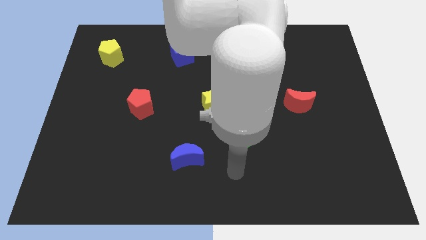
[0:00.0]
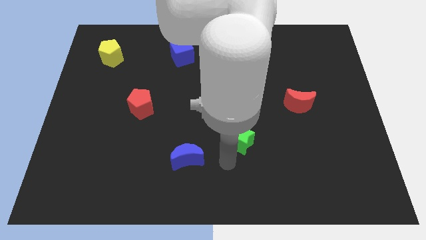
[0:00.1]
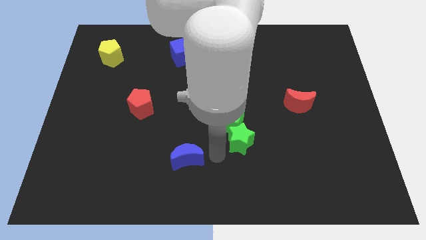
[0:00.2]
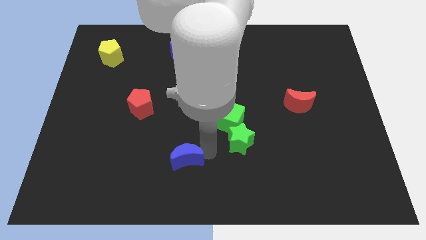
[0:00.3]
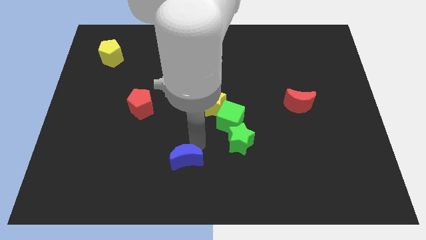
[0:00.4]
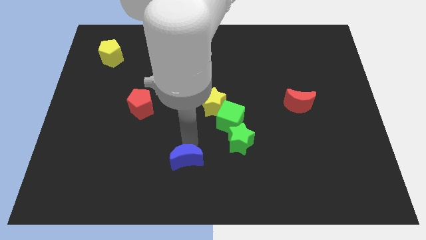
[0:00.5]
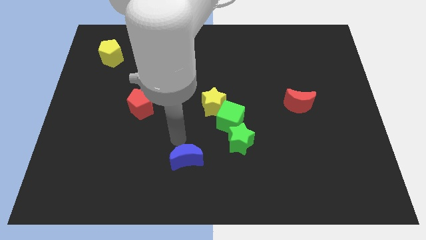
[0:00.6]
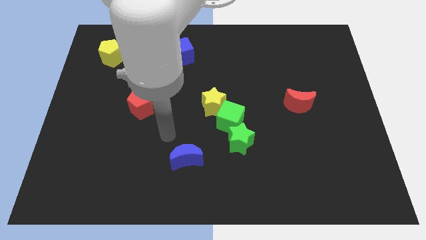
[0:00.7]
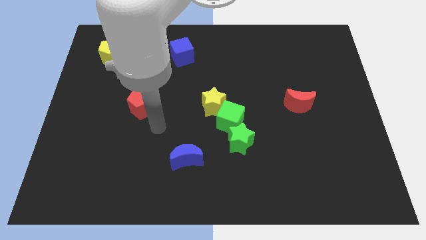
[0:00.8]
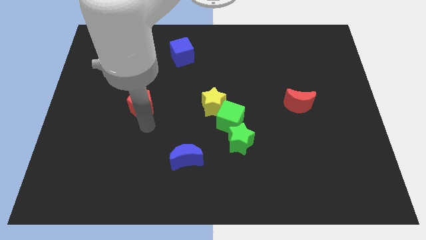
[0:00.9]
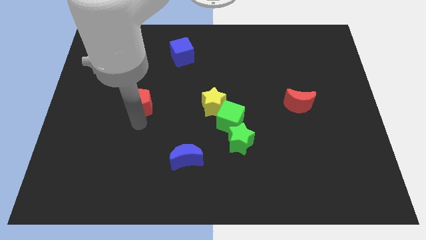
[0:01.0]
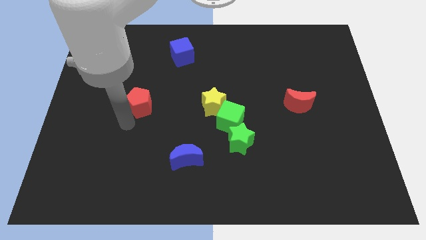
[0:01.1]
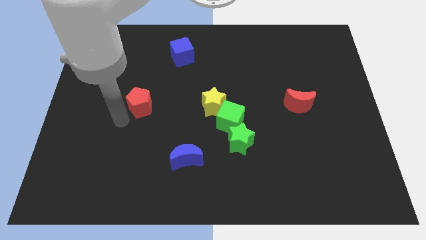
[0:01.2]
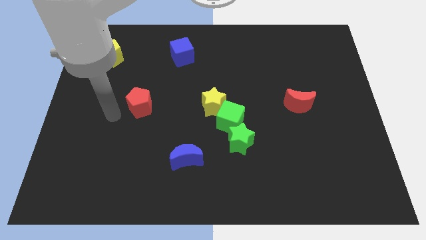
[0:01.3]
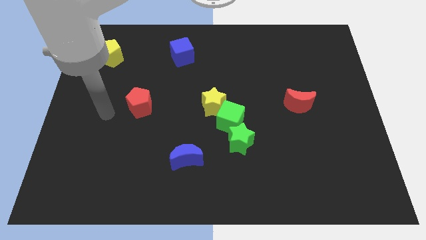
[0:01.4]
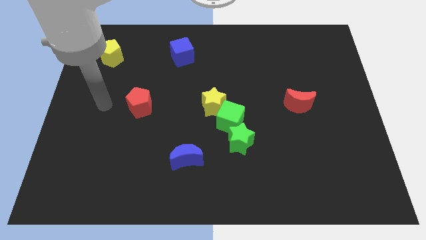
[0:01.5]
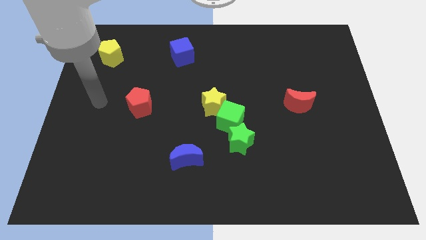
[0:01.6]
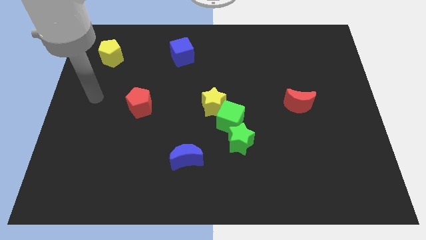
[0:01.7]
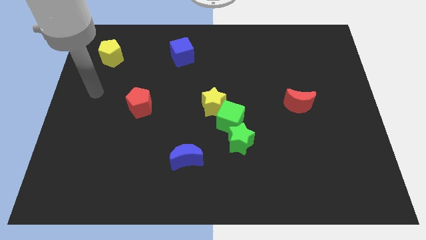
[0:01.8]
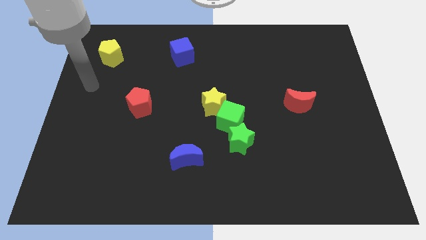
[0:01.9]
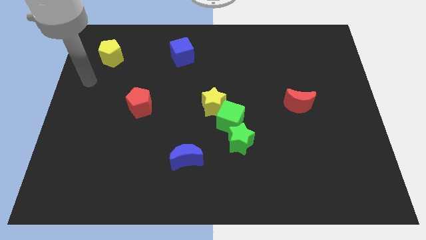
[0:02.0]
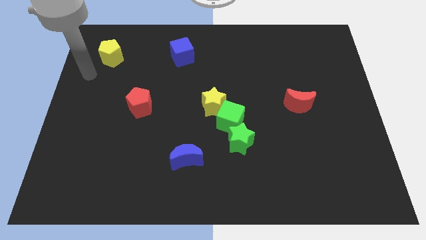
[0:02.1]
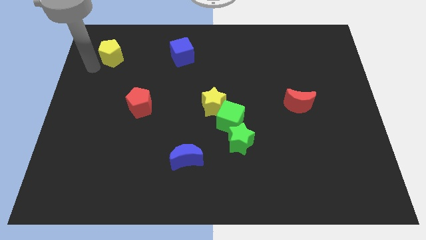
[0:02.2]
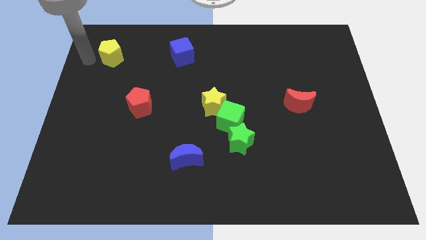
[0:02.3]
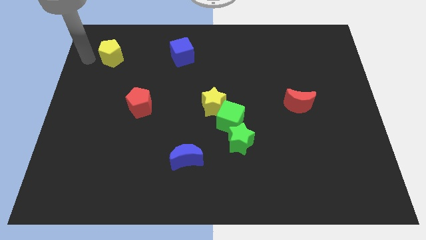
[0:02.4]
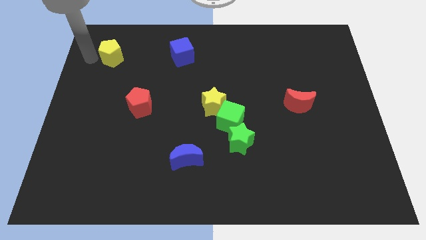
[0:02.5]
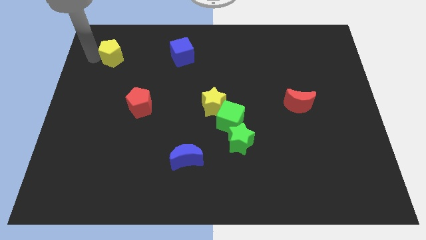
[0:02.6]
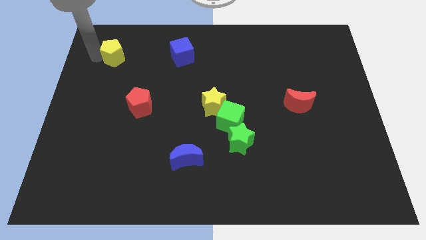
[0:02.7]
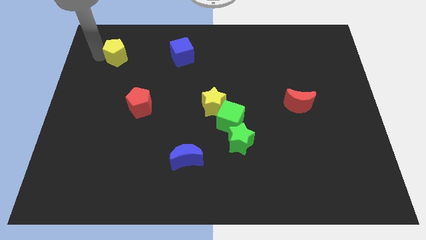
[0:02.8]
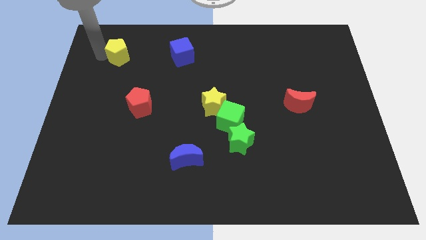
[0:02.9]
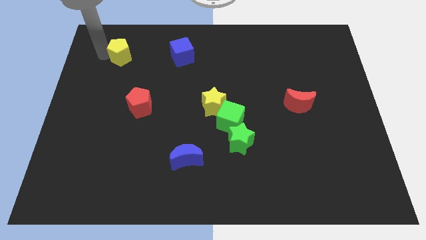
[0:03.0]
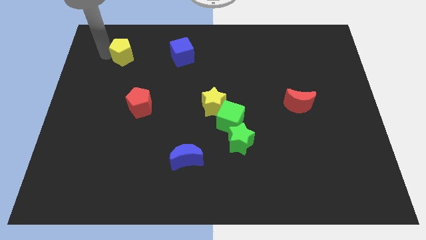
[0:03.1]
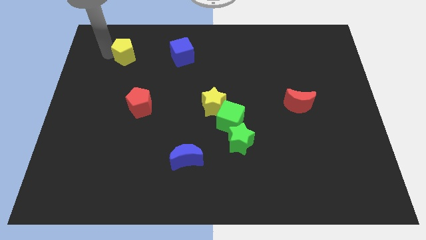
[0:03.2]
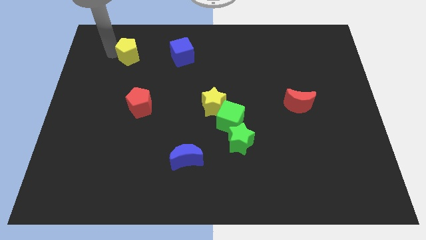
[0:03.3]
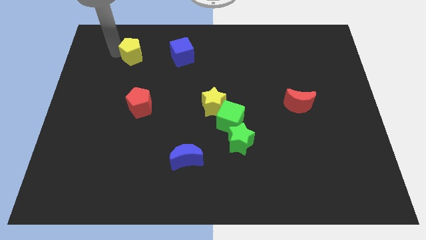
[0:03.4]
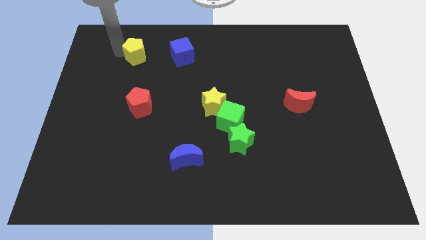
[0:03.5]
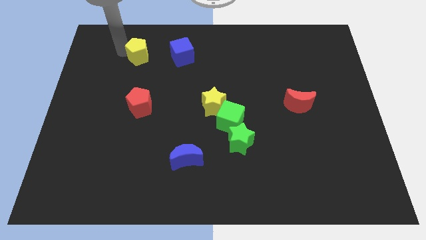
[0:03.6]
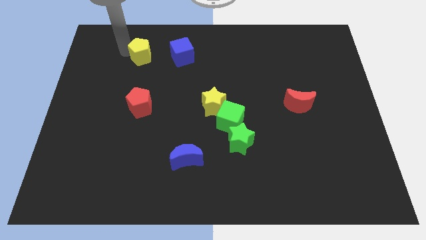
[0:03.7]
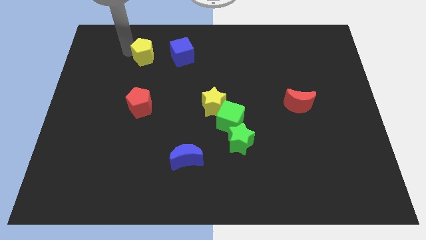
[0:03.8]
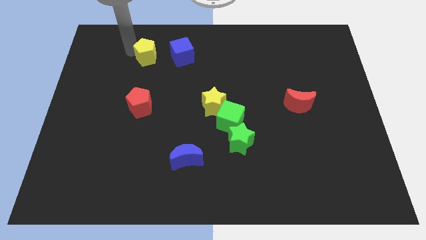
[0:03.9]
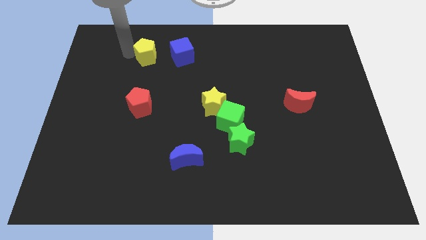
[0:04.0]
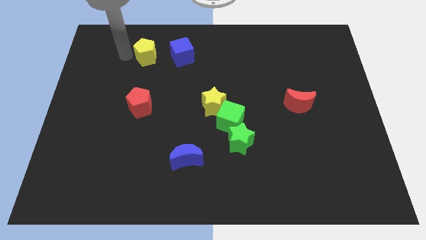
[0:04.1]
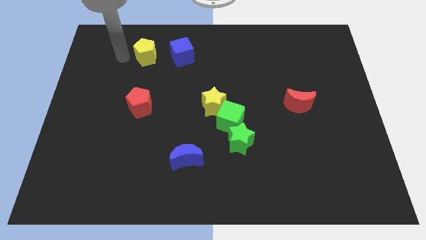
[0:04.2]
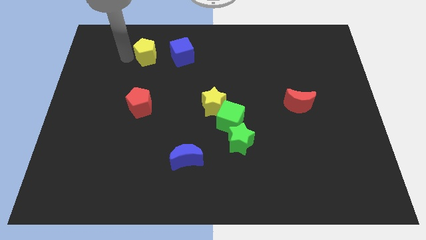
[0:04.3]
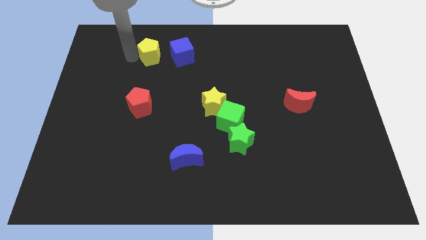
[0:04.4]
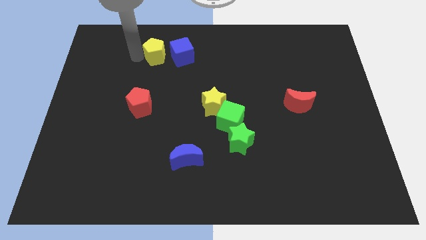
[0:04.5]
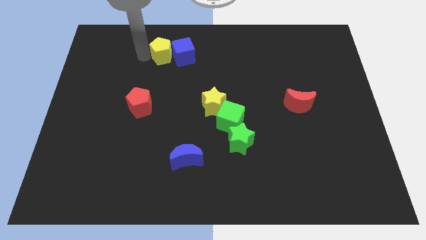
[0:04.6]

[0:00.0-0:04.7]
push the yellow pentagon next to the blue cube
